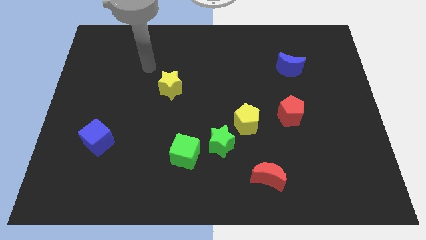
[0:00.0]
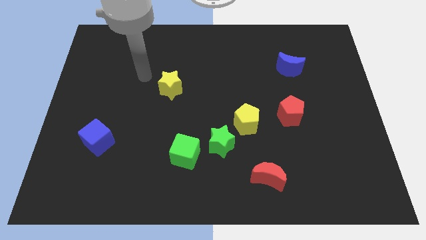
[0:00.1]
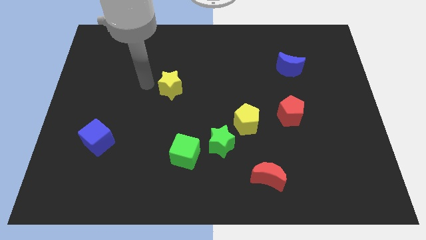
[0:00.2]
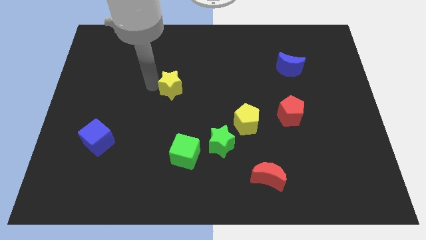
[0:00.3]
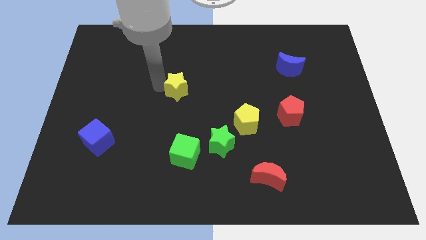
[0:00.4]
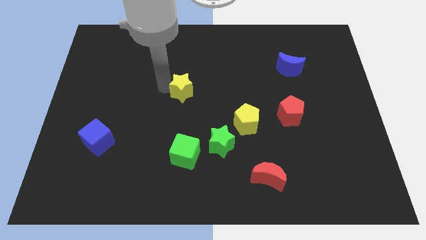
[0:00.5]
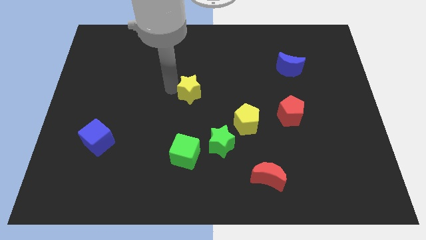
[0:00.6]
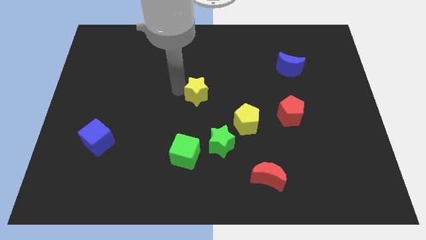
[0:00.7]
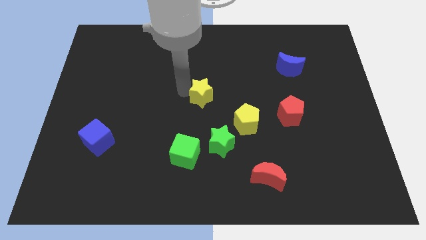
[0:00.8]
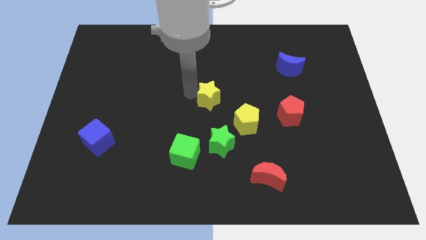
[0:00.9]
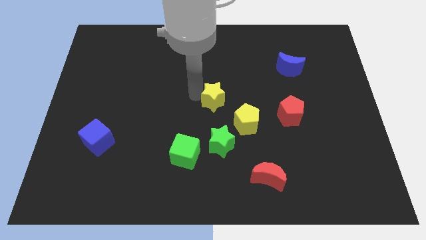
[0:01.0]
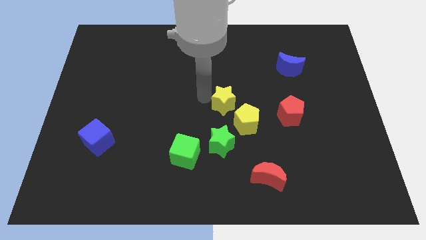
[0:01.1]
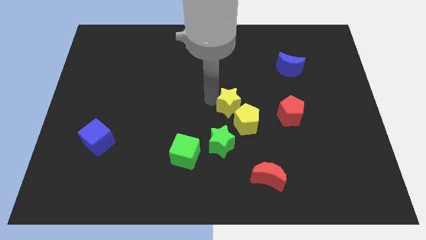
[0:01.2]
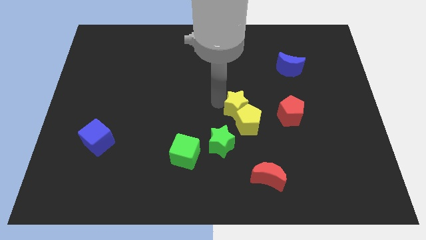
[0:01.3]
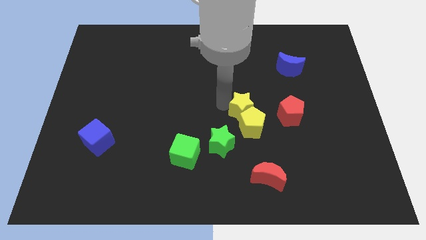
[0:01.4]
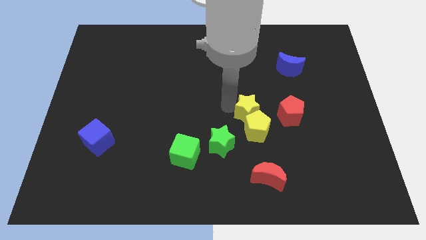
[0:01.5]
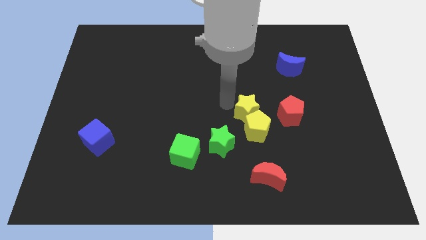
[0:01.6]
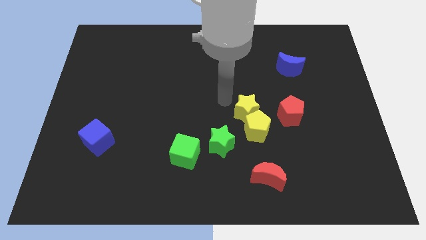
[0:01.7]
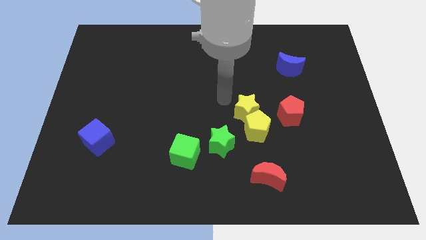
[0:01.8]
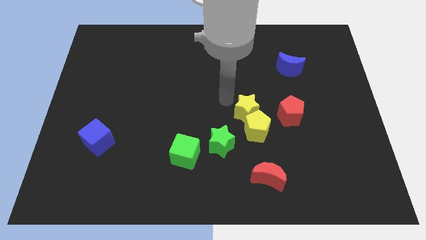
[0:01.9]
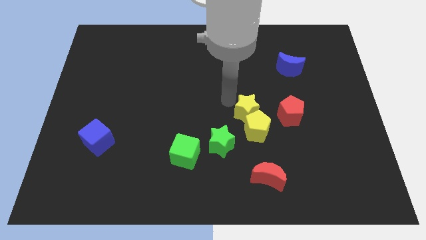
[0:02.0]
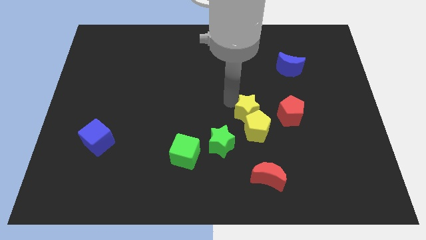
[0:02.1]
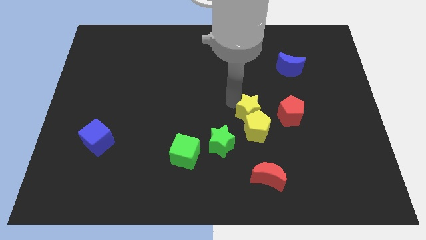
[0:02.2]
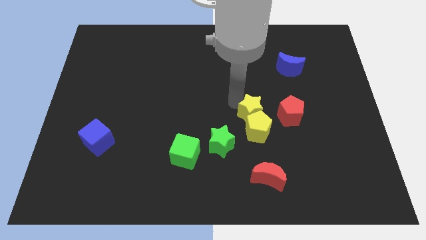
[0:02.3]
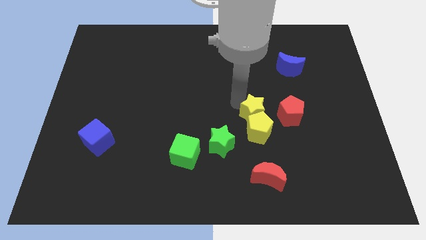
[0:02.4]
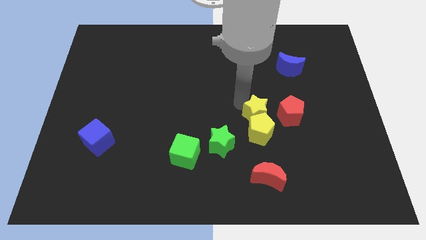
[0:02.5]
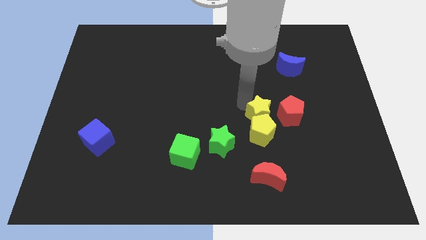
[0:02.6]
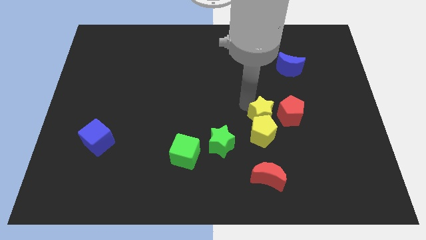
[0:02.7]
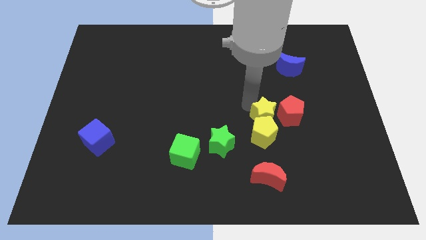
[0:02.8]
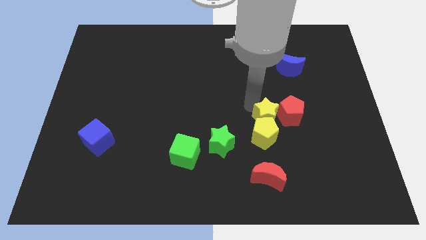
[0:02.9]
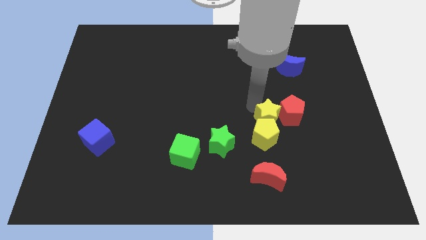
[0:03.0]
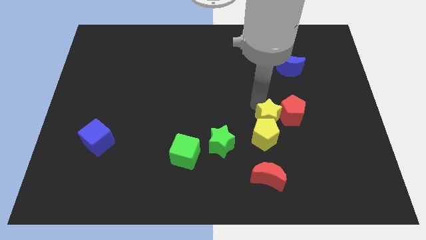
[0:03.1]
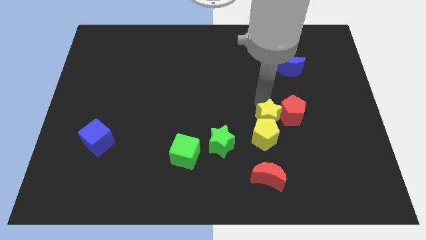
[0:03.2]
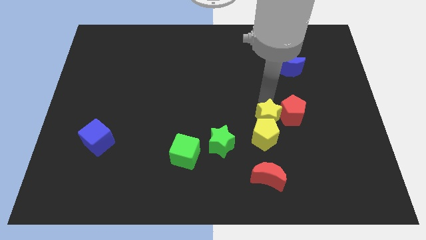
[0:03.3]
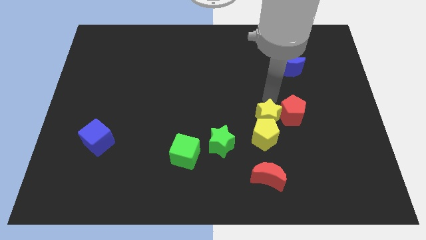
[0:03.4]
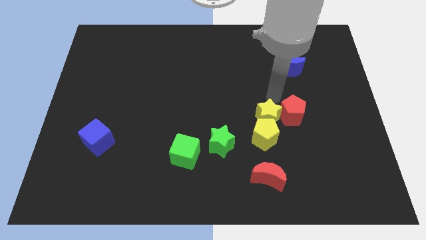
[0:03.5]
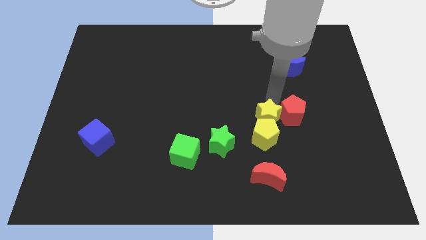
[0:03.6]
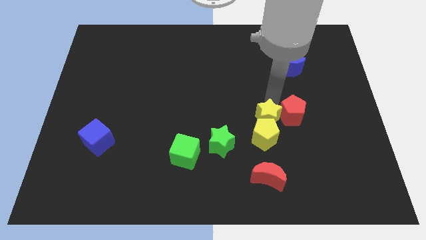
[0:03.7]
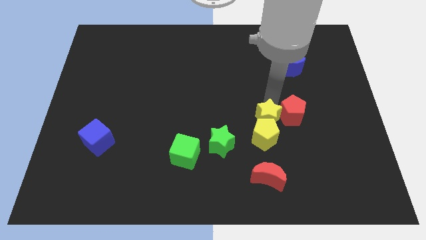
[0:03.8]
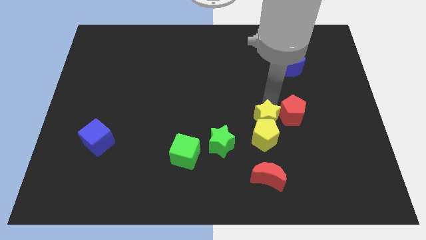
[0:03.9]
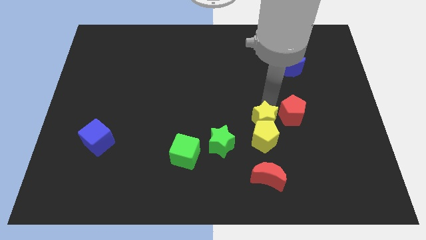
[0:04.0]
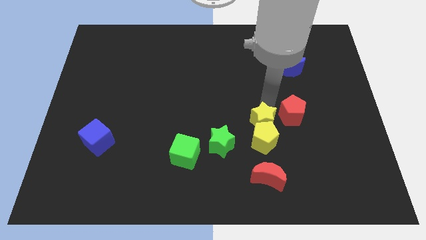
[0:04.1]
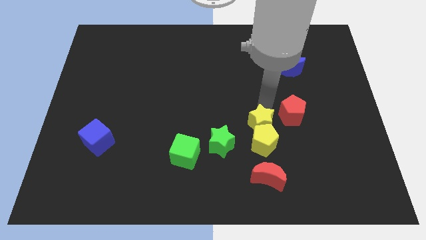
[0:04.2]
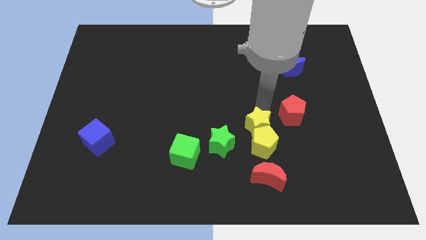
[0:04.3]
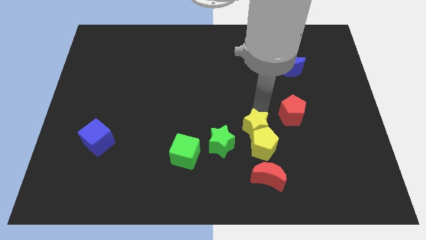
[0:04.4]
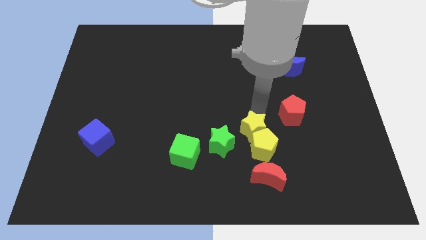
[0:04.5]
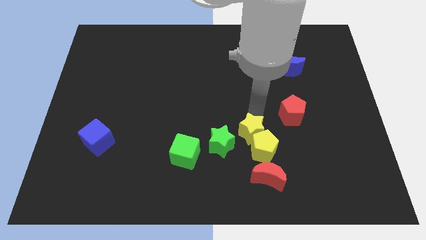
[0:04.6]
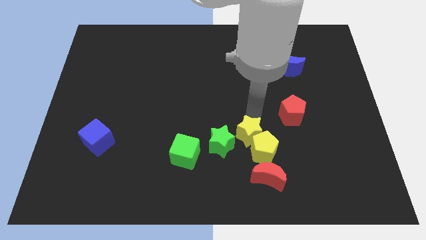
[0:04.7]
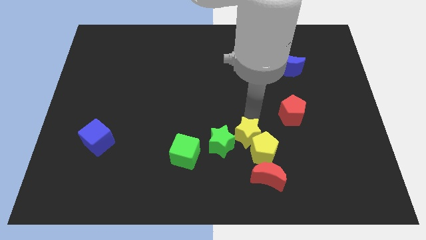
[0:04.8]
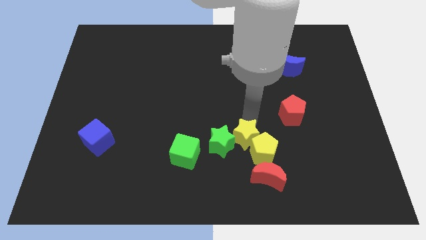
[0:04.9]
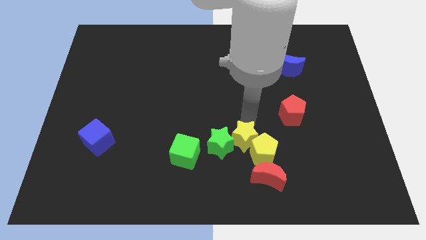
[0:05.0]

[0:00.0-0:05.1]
slide the yellow star to the bottom right side of the green star

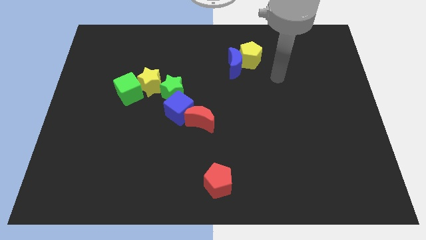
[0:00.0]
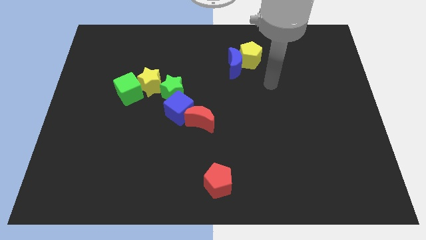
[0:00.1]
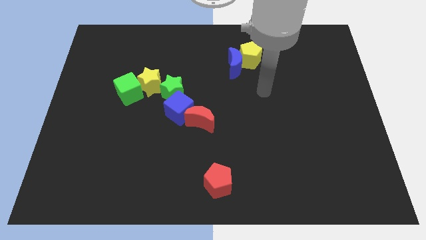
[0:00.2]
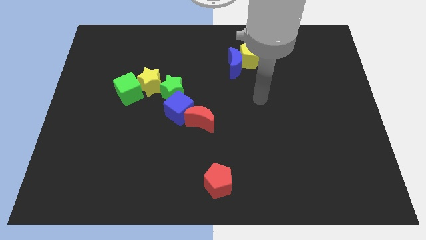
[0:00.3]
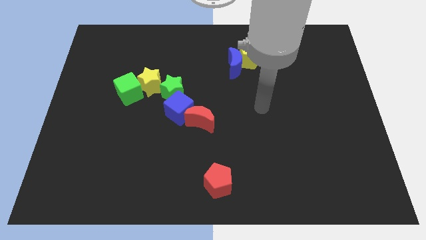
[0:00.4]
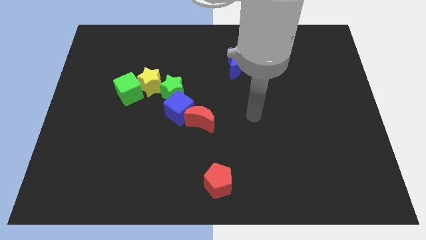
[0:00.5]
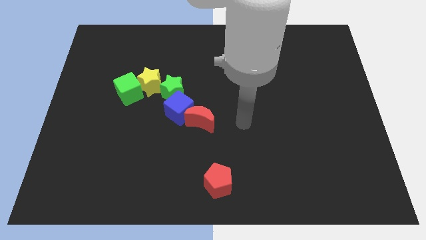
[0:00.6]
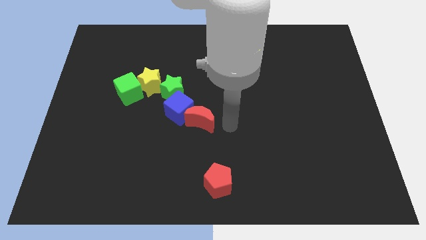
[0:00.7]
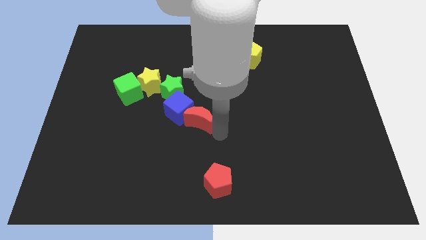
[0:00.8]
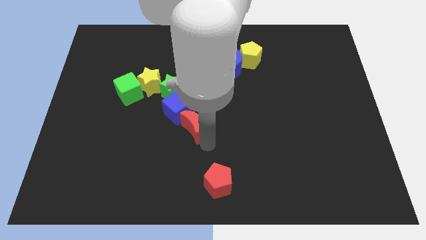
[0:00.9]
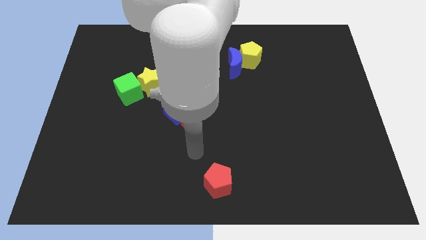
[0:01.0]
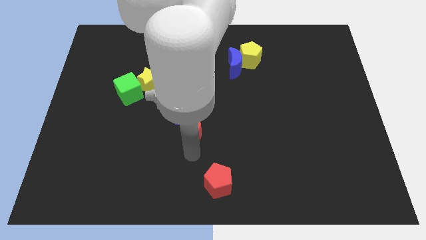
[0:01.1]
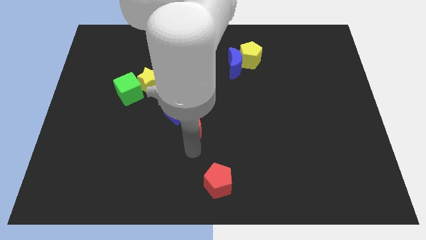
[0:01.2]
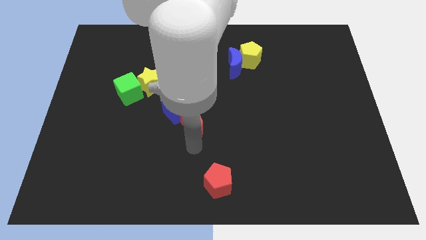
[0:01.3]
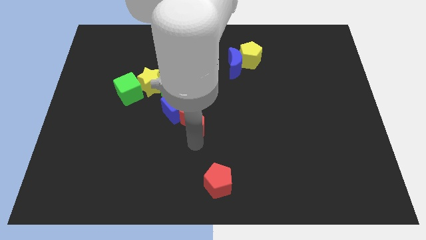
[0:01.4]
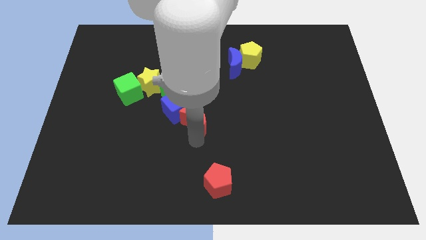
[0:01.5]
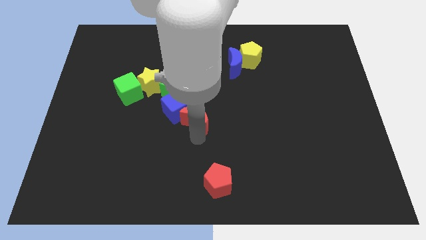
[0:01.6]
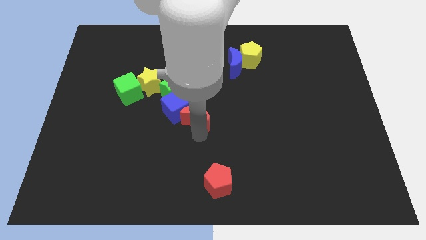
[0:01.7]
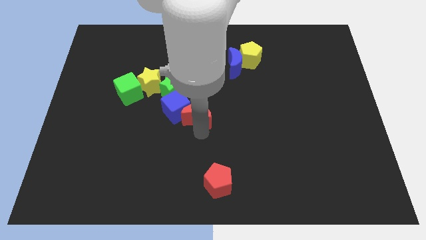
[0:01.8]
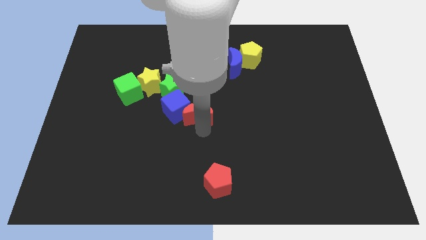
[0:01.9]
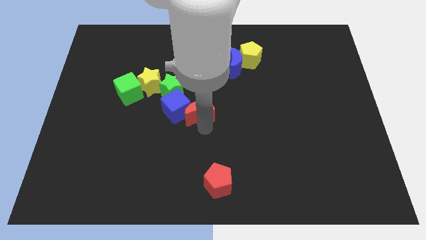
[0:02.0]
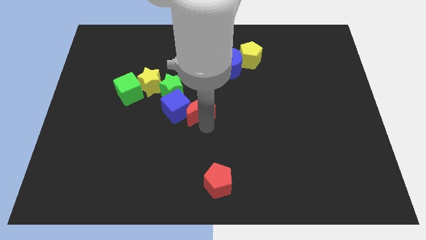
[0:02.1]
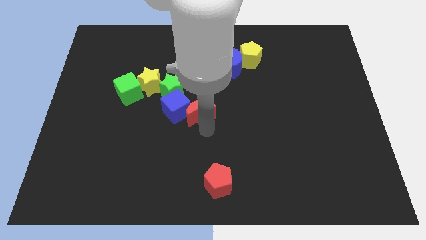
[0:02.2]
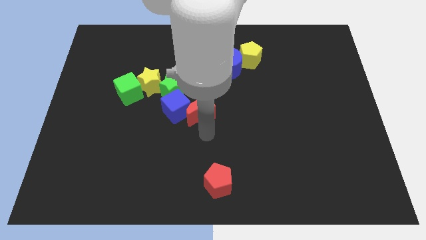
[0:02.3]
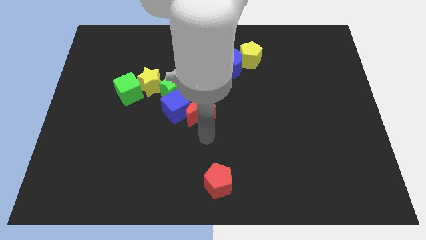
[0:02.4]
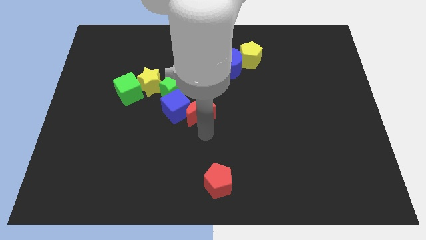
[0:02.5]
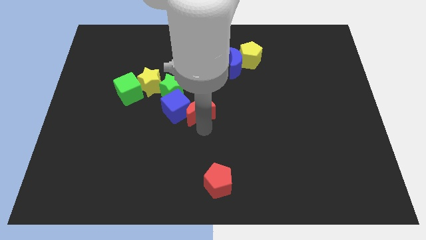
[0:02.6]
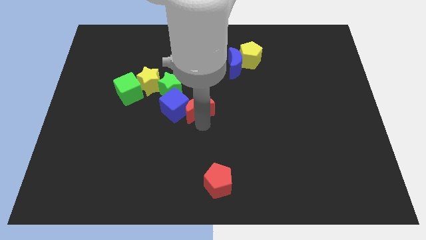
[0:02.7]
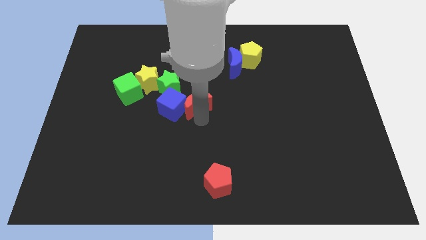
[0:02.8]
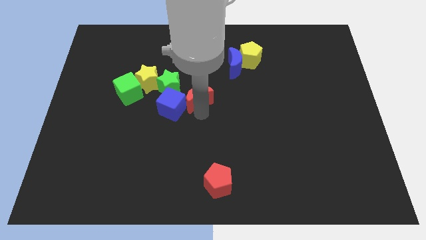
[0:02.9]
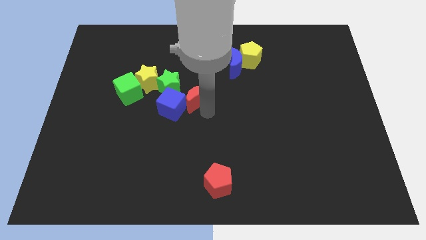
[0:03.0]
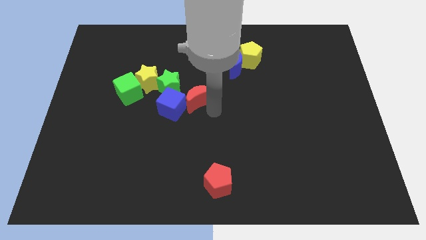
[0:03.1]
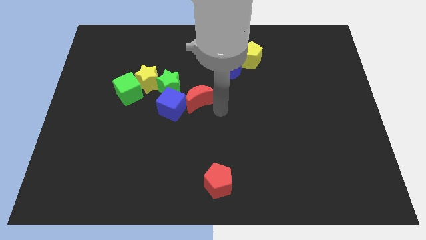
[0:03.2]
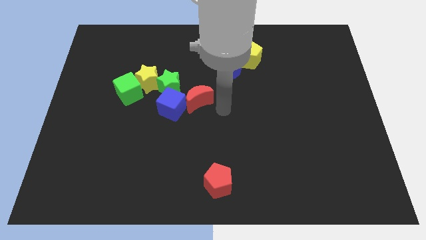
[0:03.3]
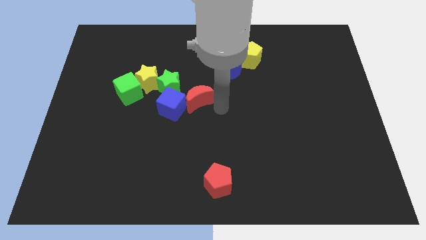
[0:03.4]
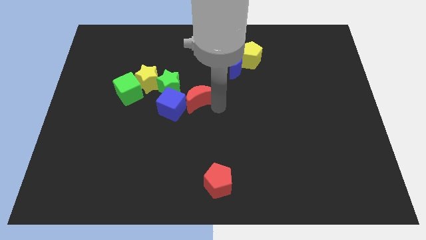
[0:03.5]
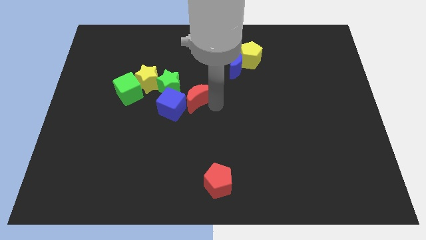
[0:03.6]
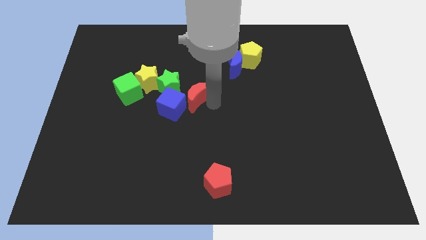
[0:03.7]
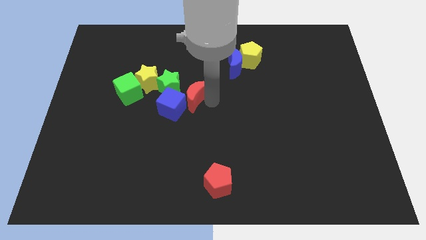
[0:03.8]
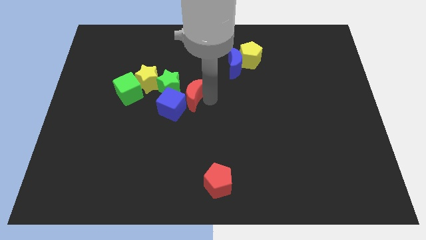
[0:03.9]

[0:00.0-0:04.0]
move the red moon right of the green cube
